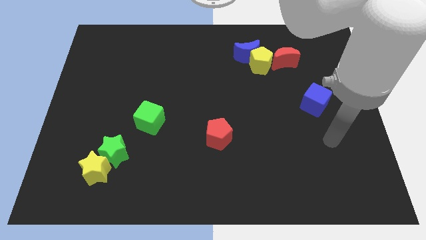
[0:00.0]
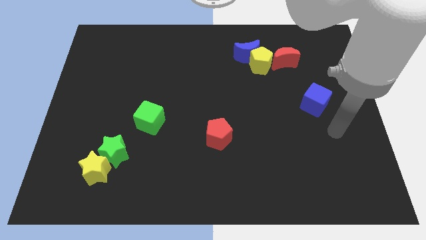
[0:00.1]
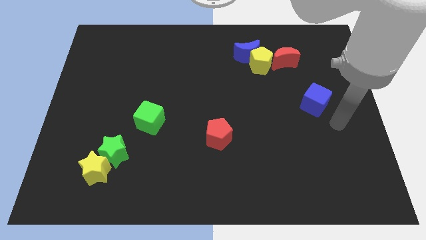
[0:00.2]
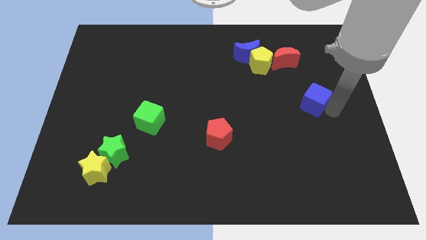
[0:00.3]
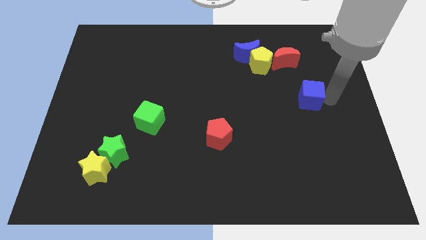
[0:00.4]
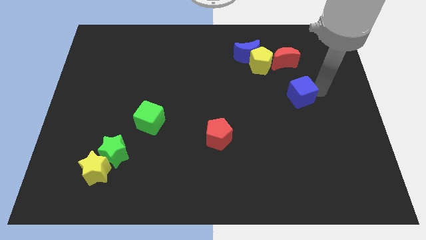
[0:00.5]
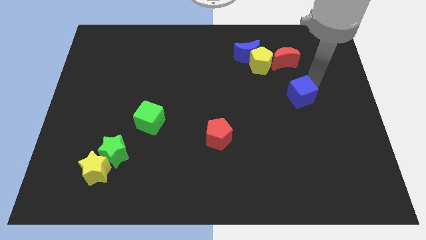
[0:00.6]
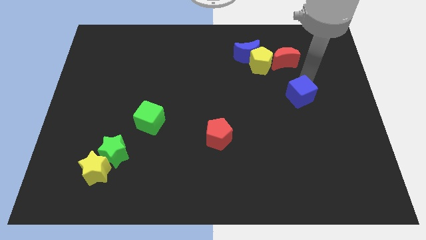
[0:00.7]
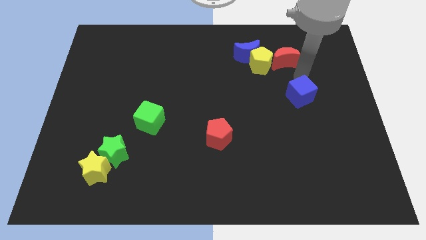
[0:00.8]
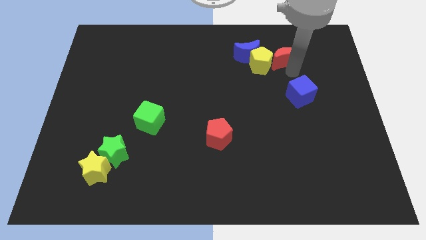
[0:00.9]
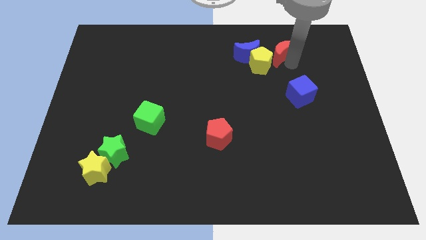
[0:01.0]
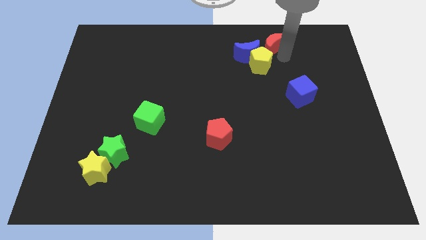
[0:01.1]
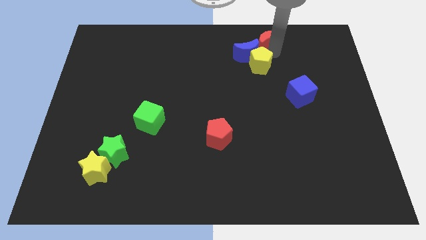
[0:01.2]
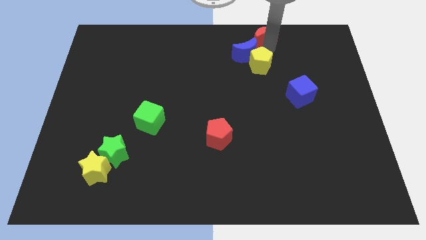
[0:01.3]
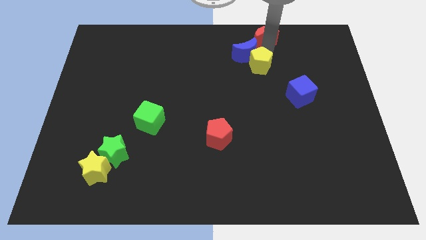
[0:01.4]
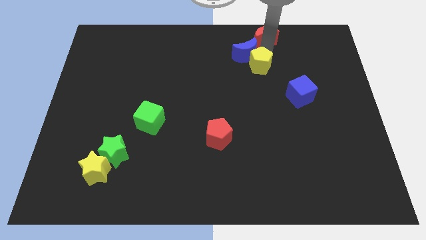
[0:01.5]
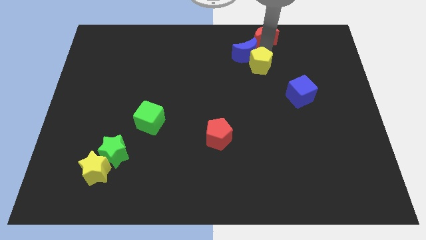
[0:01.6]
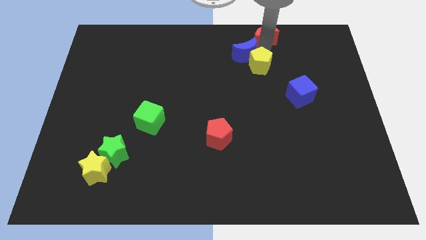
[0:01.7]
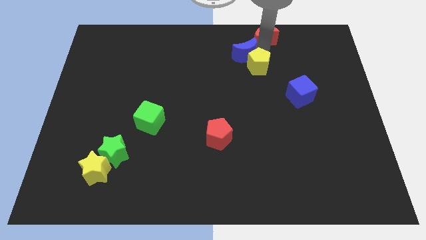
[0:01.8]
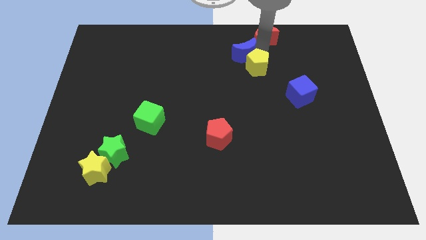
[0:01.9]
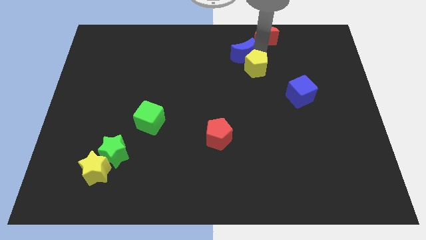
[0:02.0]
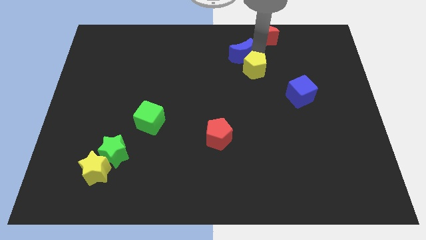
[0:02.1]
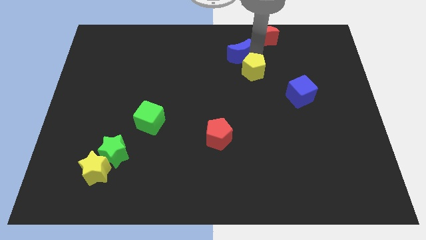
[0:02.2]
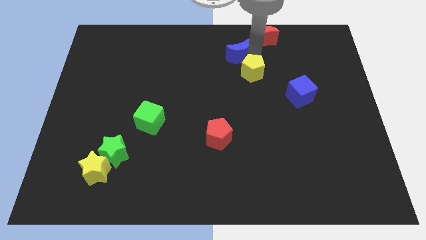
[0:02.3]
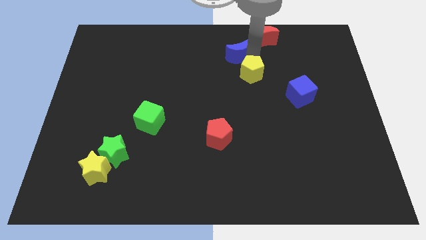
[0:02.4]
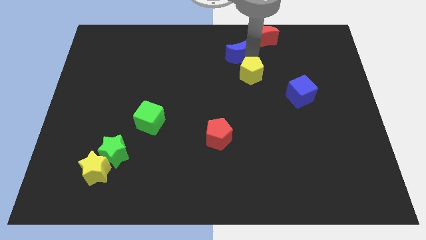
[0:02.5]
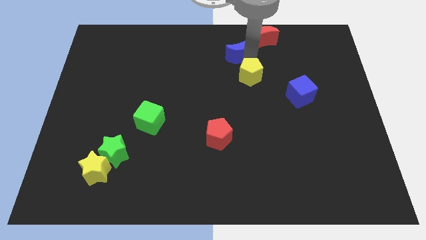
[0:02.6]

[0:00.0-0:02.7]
pull the yellow pentagon apart from the blue moon and red moon

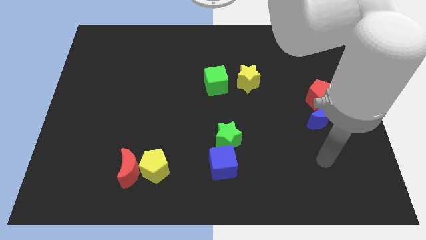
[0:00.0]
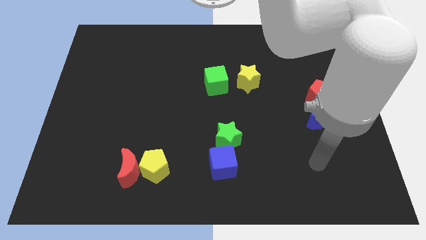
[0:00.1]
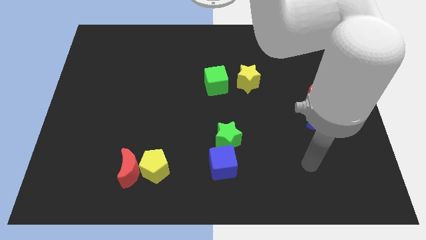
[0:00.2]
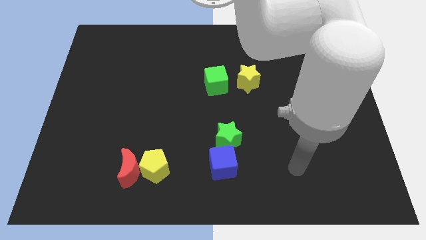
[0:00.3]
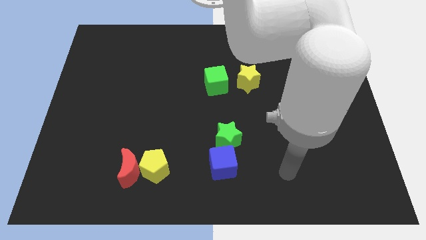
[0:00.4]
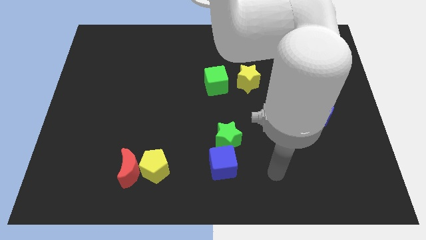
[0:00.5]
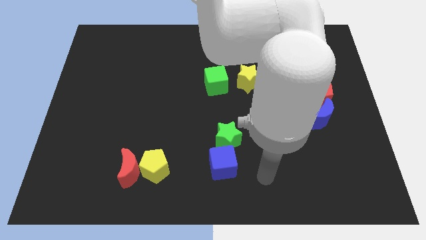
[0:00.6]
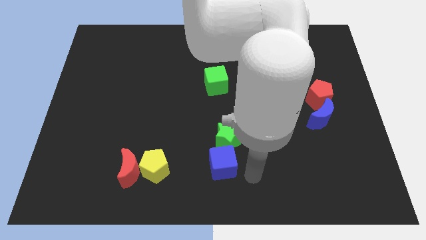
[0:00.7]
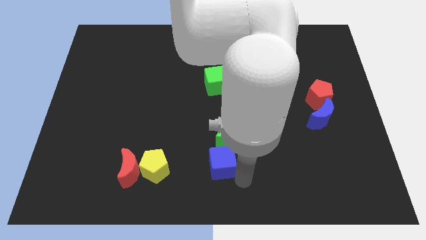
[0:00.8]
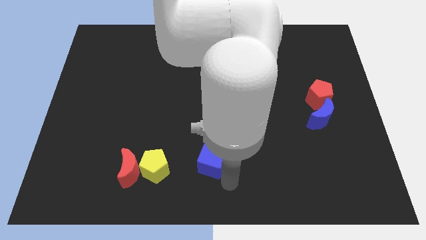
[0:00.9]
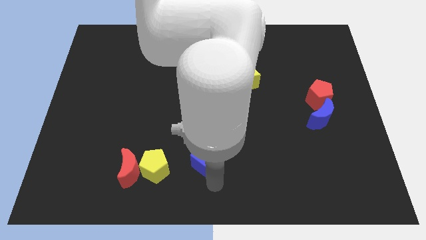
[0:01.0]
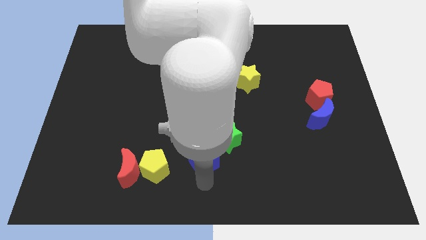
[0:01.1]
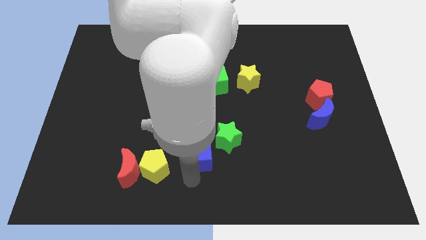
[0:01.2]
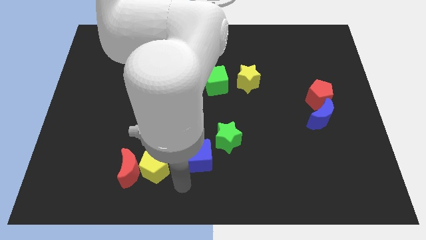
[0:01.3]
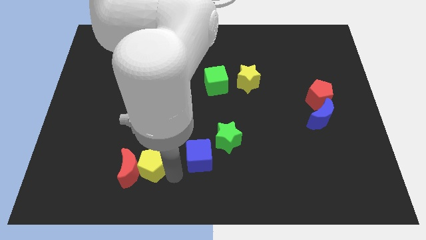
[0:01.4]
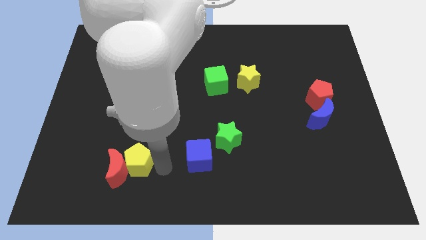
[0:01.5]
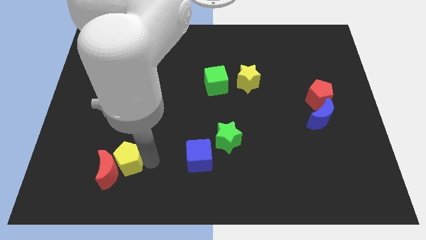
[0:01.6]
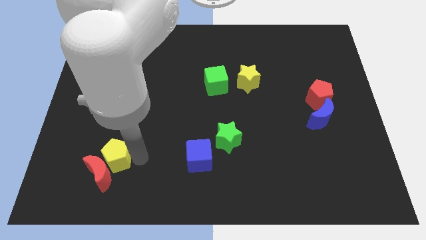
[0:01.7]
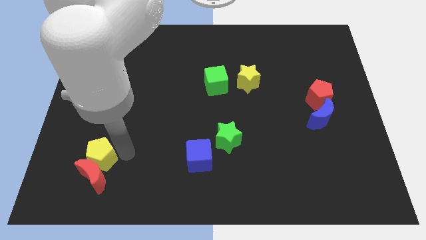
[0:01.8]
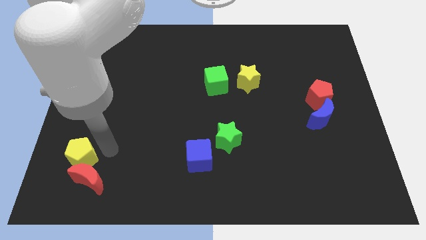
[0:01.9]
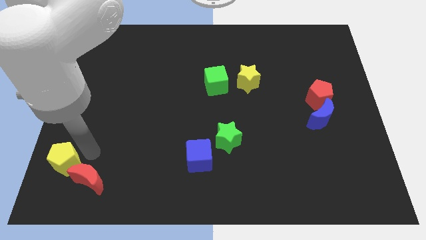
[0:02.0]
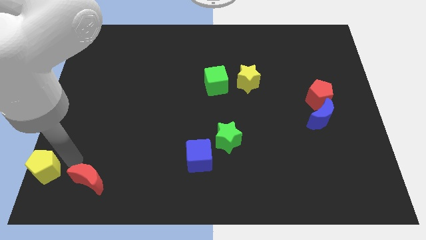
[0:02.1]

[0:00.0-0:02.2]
pull the red moon apart from the yellow pentagon

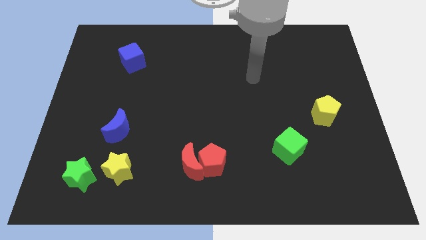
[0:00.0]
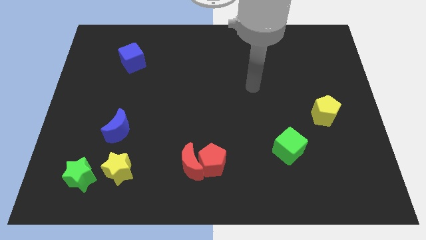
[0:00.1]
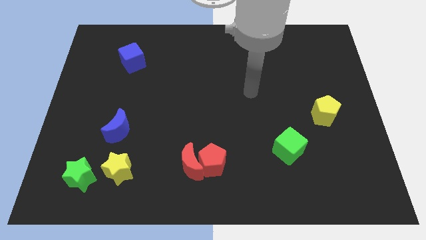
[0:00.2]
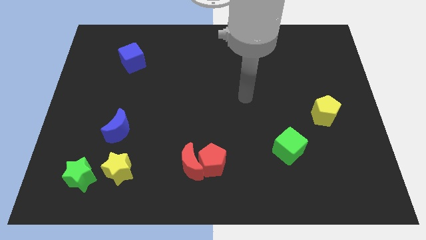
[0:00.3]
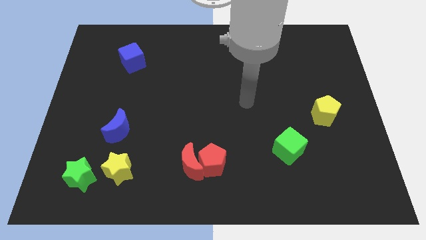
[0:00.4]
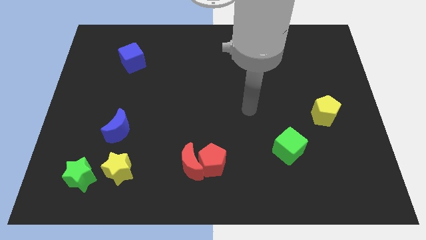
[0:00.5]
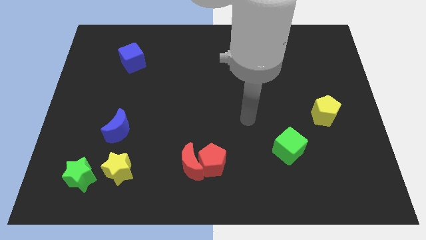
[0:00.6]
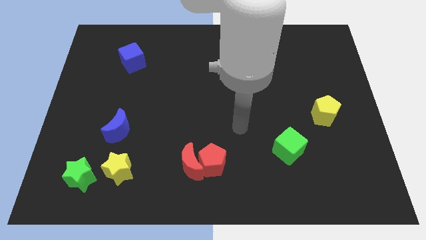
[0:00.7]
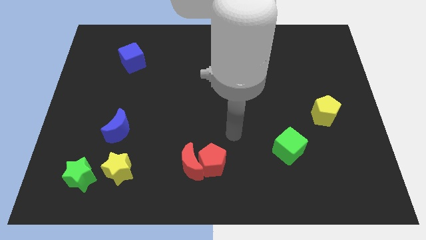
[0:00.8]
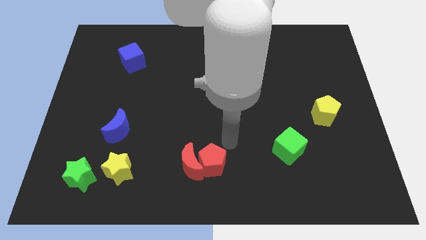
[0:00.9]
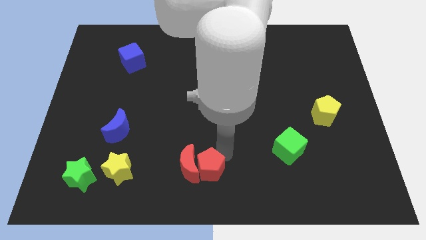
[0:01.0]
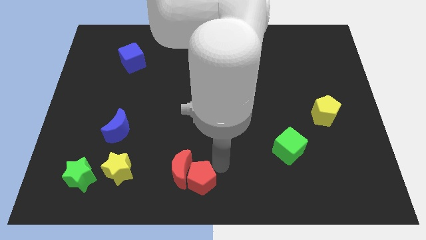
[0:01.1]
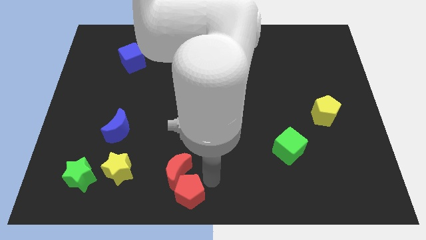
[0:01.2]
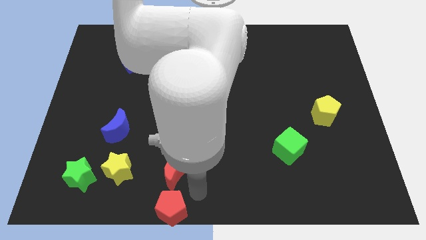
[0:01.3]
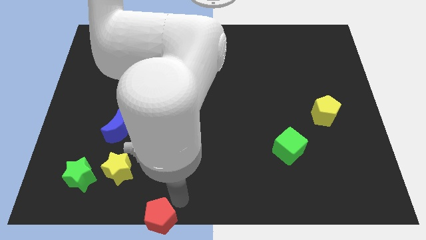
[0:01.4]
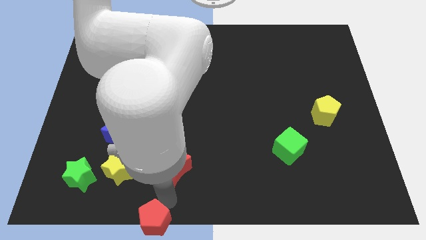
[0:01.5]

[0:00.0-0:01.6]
move the red moon away from the red pentagon

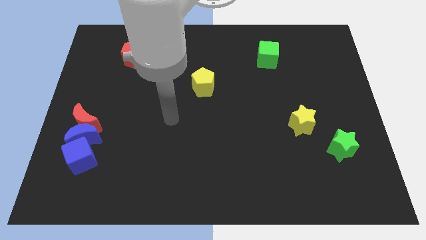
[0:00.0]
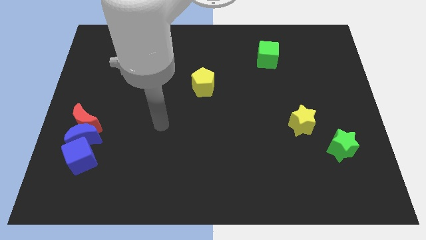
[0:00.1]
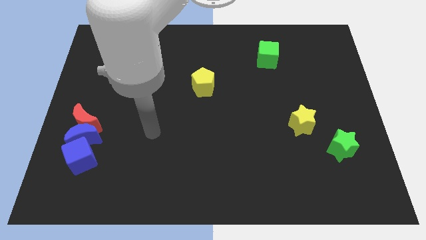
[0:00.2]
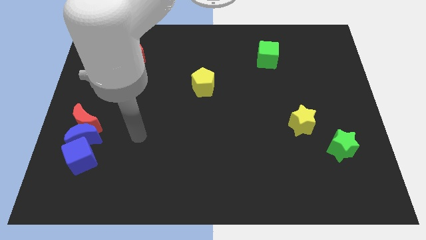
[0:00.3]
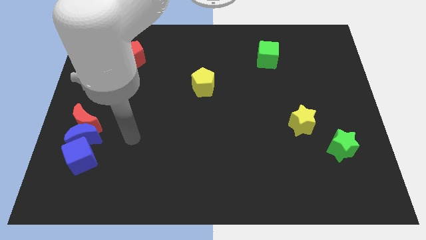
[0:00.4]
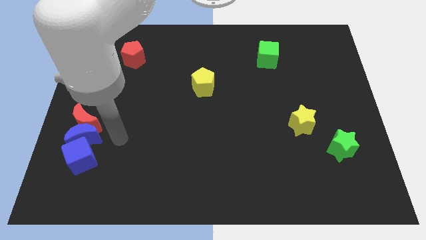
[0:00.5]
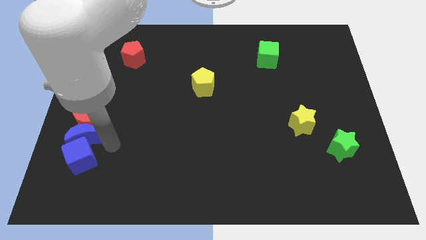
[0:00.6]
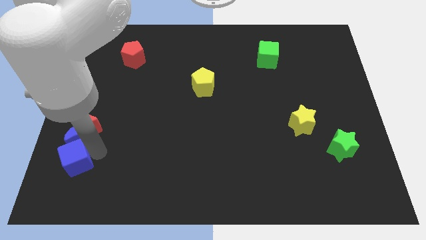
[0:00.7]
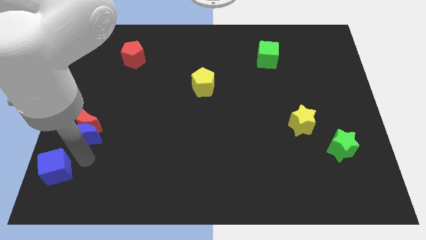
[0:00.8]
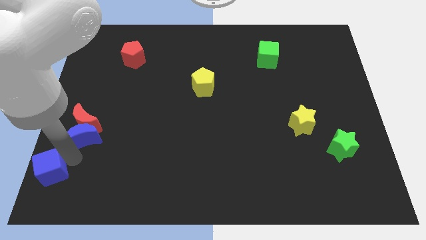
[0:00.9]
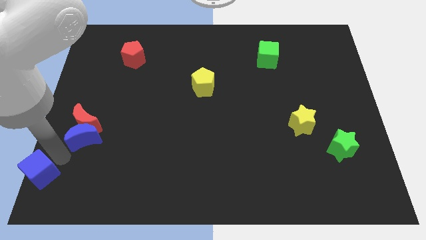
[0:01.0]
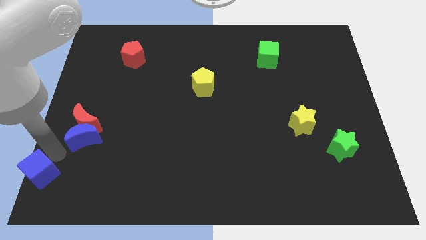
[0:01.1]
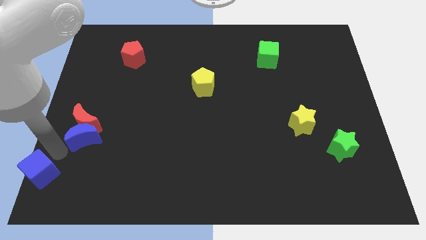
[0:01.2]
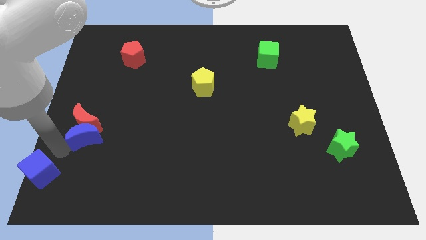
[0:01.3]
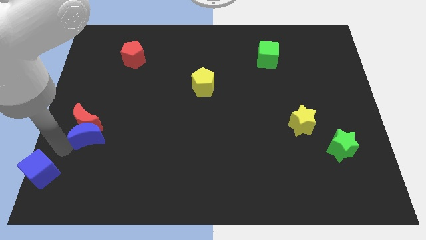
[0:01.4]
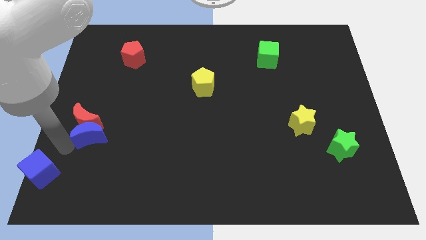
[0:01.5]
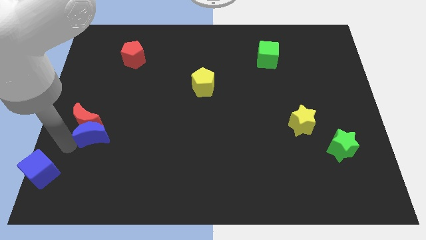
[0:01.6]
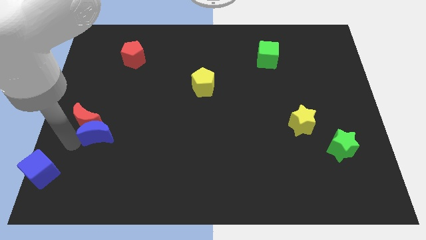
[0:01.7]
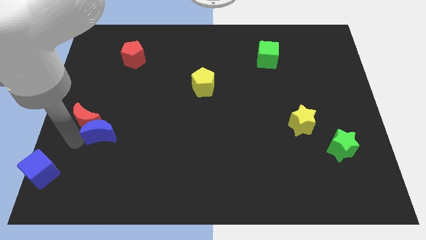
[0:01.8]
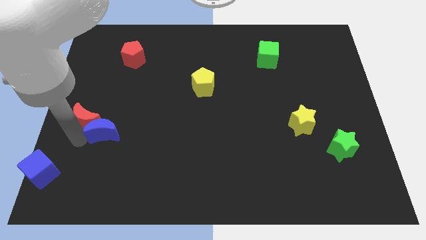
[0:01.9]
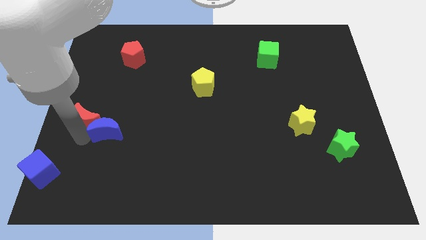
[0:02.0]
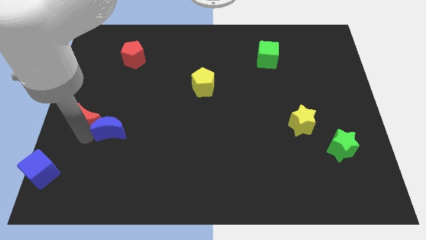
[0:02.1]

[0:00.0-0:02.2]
move the blue moon away from the red moon and blue cube

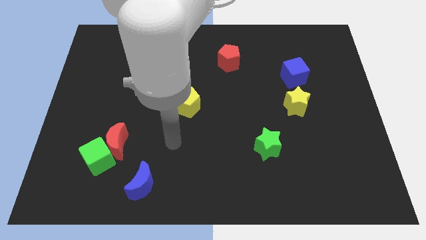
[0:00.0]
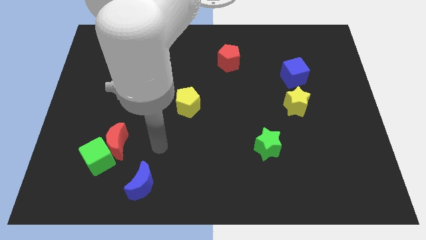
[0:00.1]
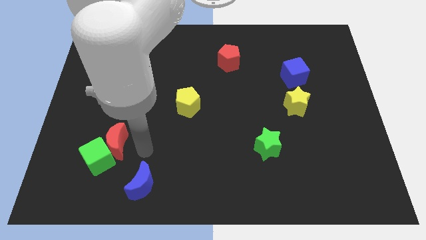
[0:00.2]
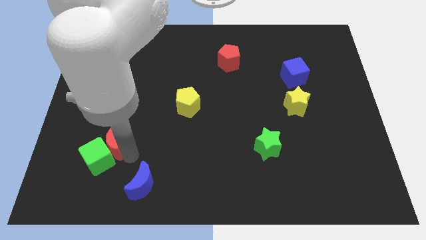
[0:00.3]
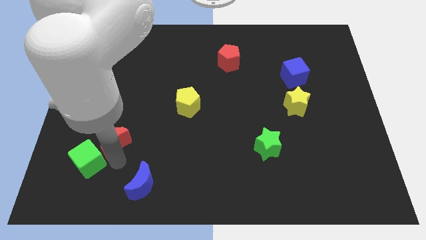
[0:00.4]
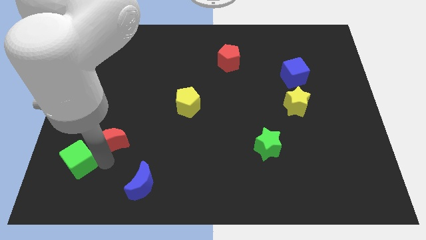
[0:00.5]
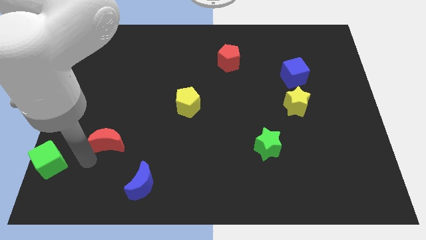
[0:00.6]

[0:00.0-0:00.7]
pull the red moon apart from the green cube
